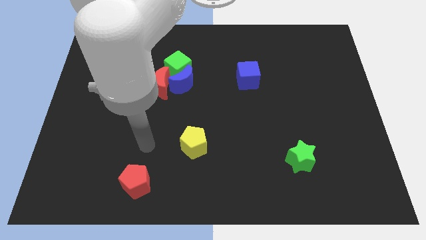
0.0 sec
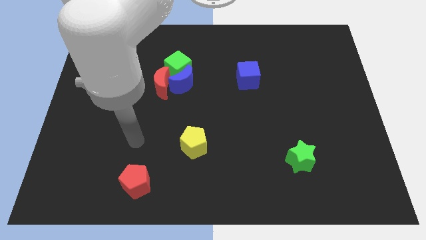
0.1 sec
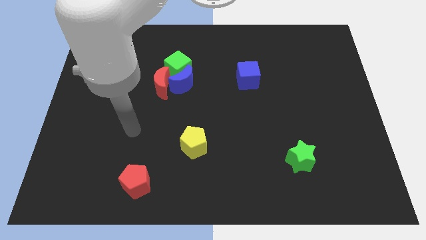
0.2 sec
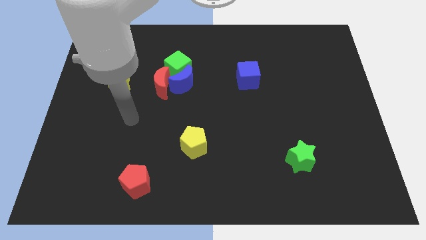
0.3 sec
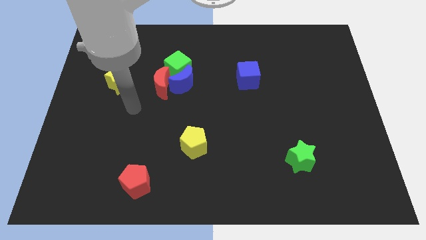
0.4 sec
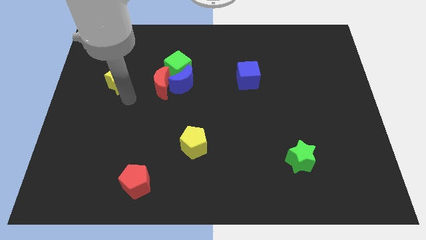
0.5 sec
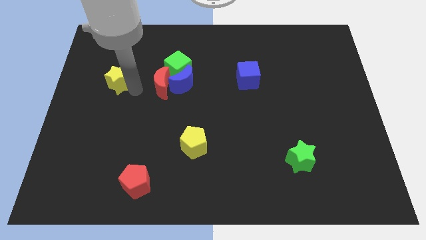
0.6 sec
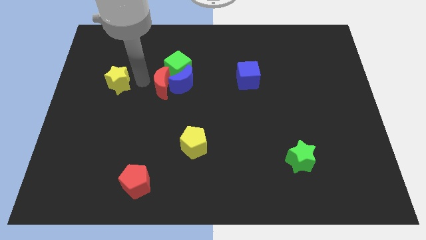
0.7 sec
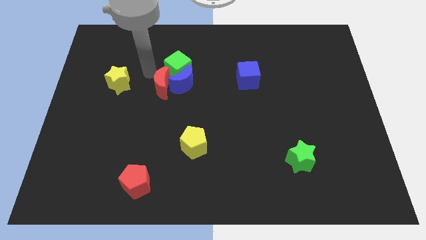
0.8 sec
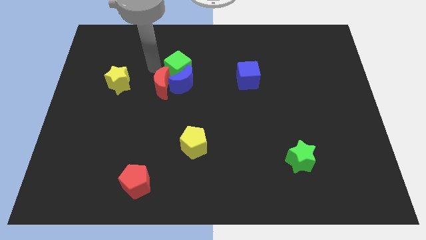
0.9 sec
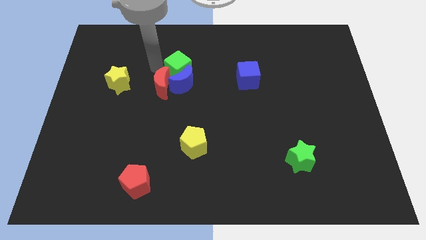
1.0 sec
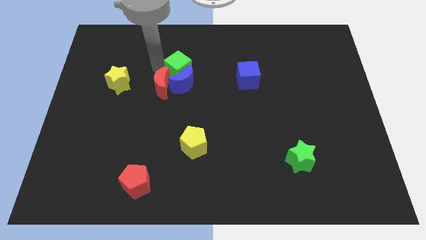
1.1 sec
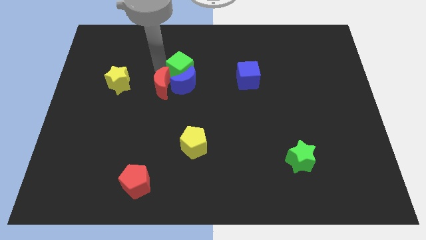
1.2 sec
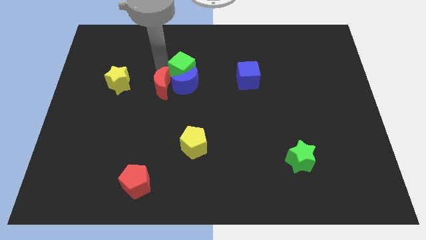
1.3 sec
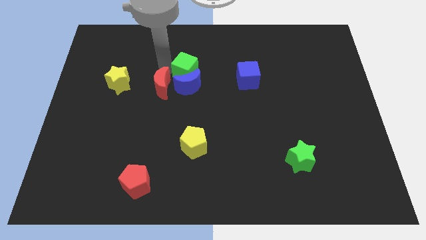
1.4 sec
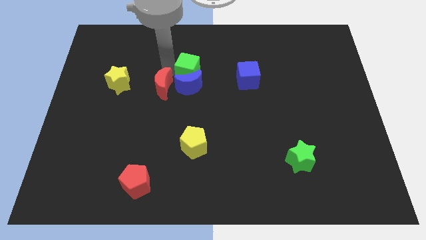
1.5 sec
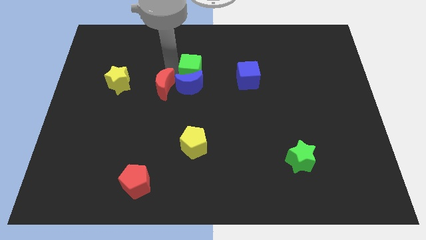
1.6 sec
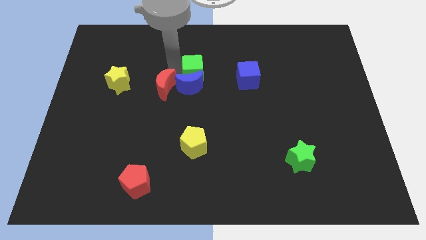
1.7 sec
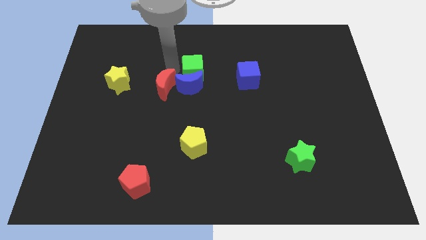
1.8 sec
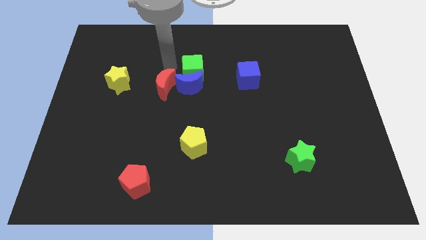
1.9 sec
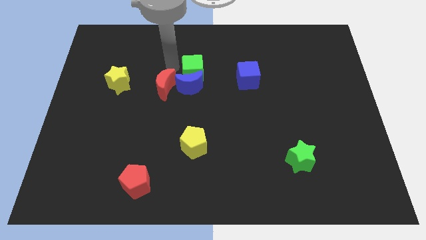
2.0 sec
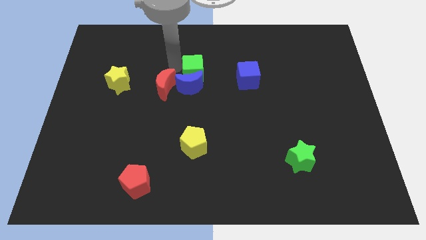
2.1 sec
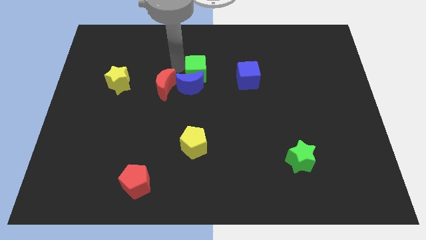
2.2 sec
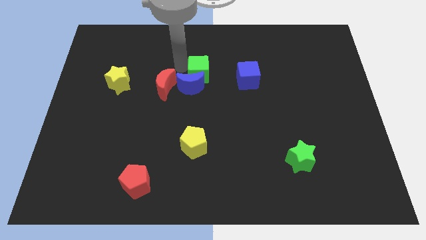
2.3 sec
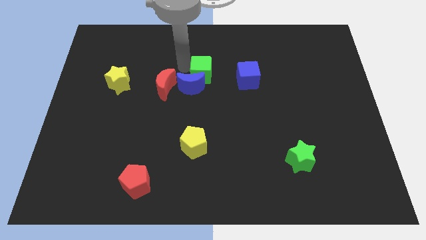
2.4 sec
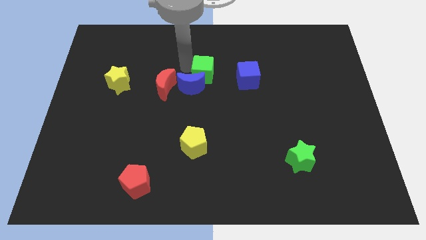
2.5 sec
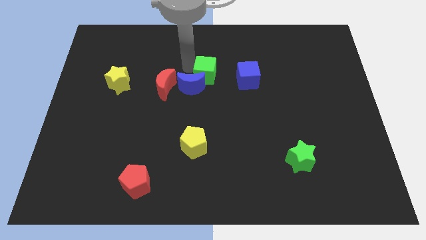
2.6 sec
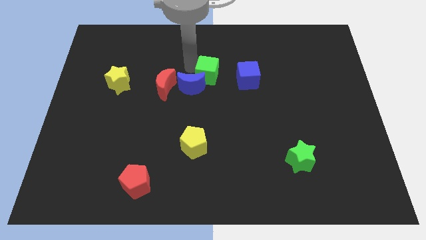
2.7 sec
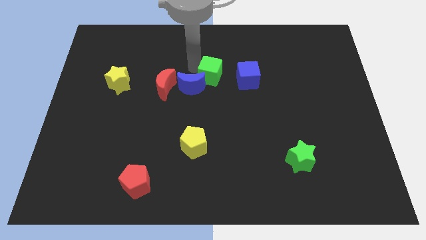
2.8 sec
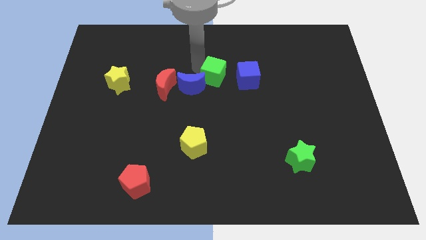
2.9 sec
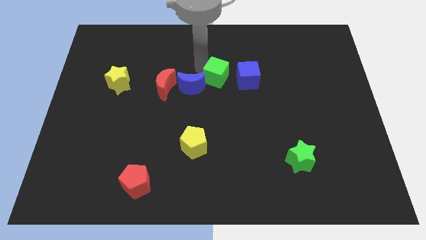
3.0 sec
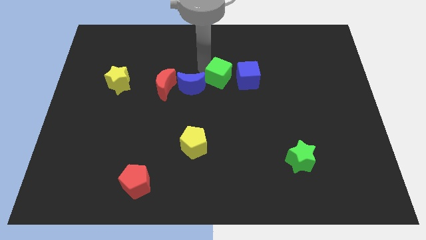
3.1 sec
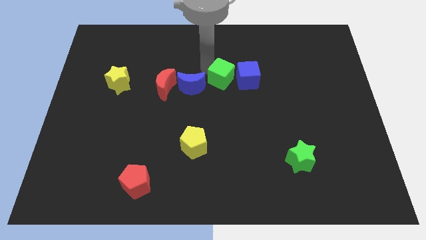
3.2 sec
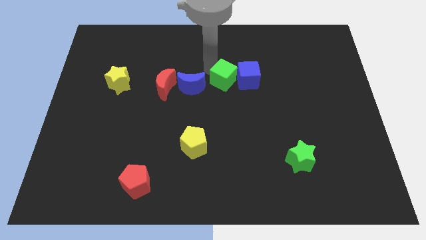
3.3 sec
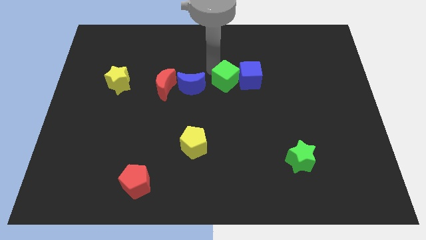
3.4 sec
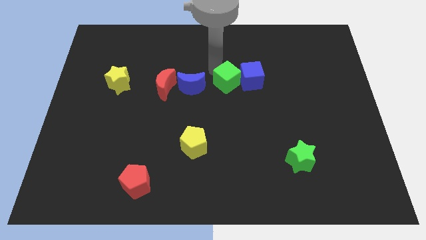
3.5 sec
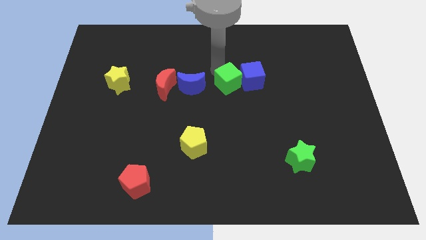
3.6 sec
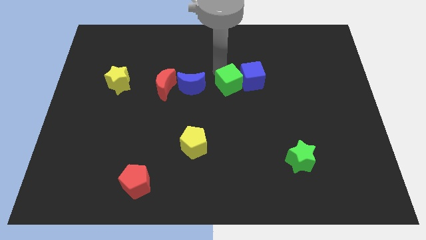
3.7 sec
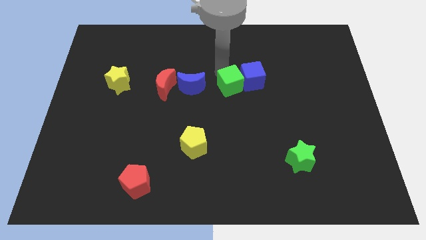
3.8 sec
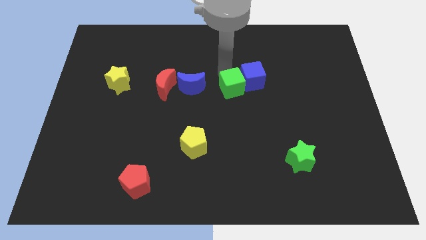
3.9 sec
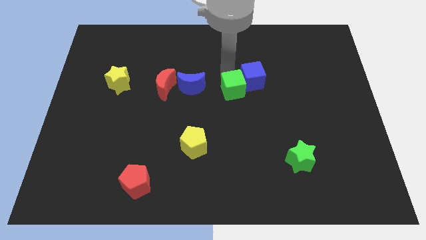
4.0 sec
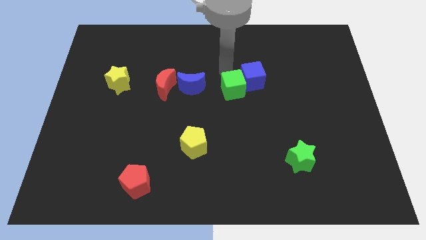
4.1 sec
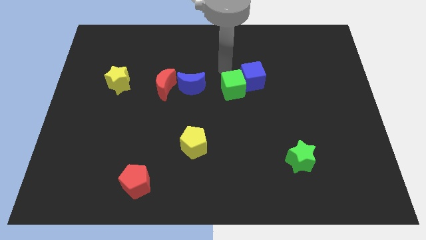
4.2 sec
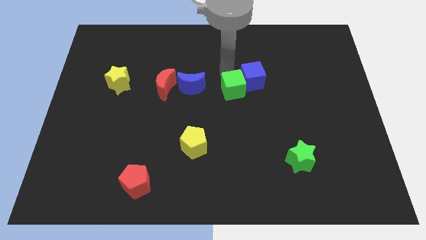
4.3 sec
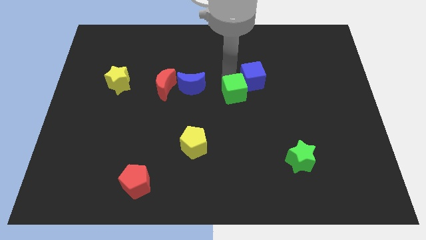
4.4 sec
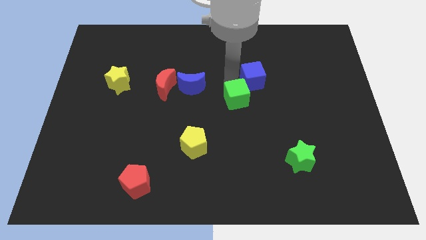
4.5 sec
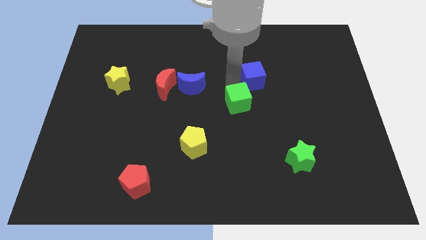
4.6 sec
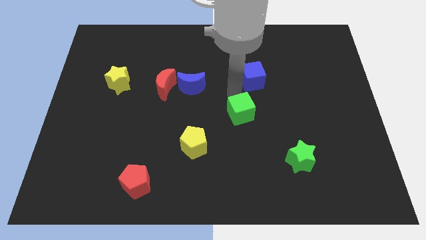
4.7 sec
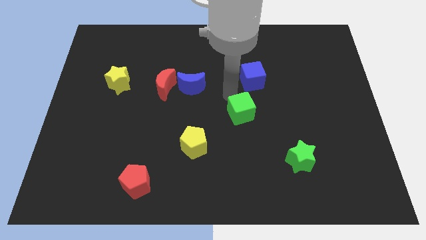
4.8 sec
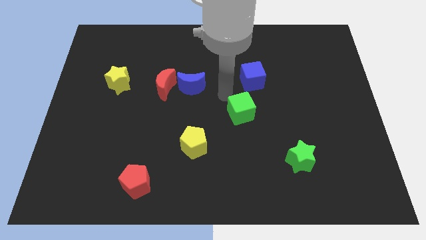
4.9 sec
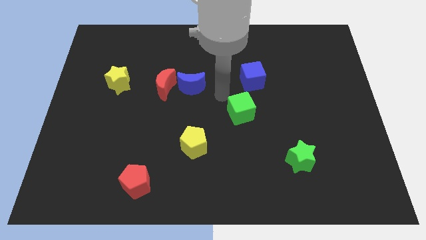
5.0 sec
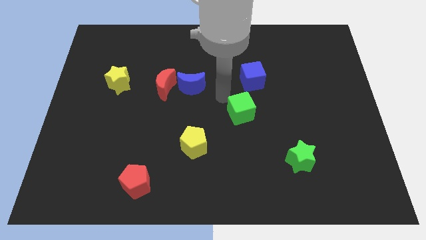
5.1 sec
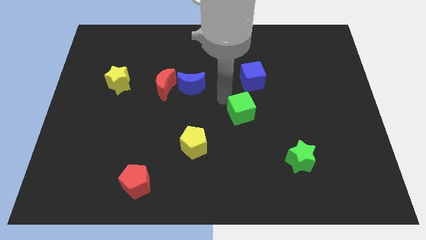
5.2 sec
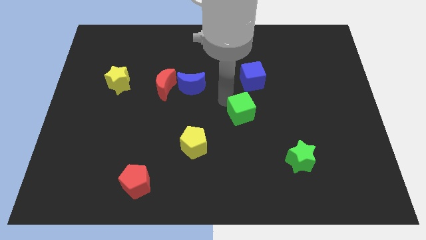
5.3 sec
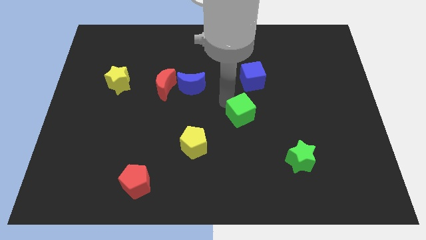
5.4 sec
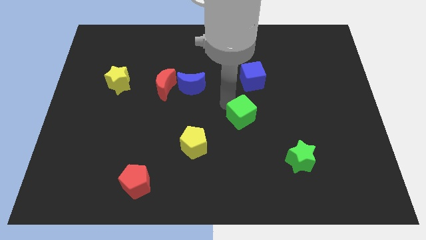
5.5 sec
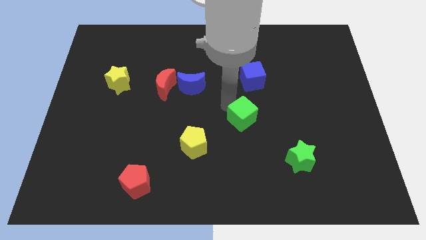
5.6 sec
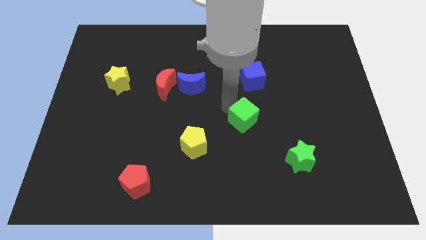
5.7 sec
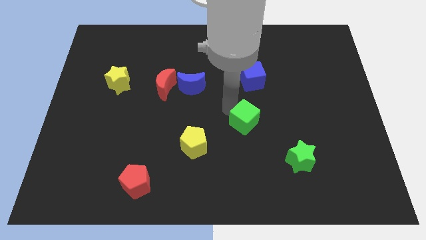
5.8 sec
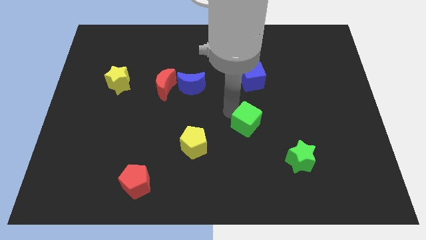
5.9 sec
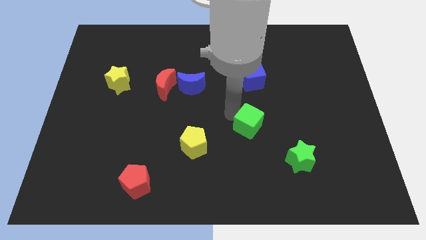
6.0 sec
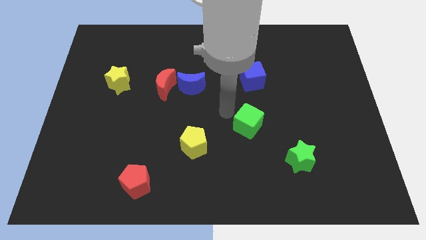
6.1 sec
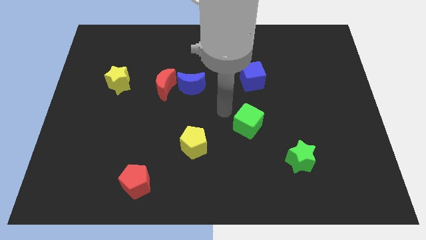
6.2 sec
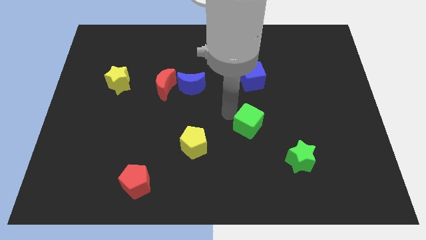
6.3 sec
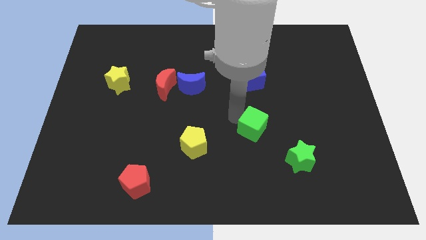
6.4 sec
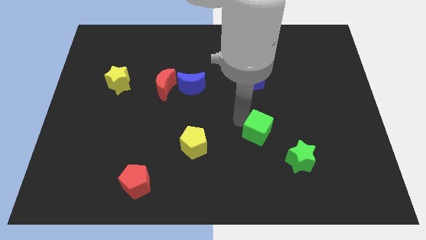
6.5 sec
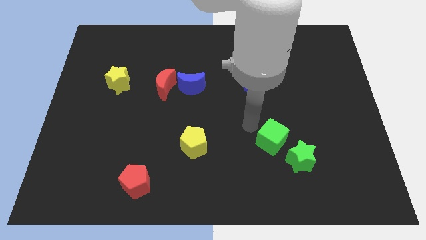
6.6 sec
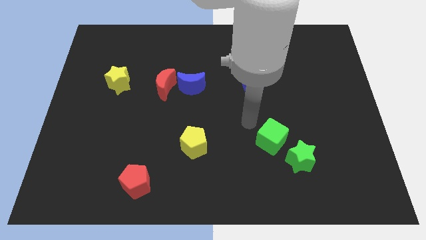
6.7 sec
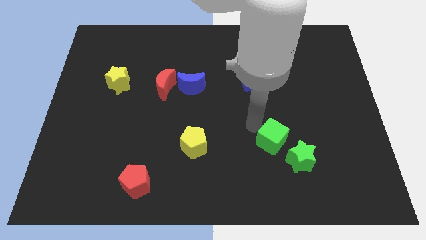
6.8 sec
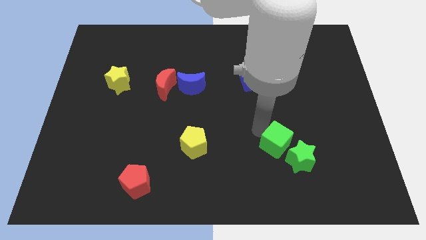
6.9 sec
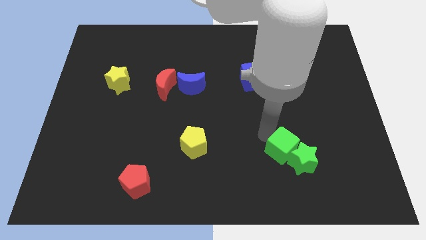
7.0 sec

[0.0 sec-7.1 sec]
move the green cube towards the green star
